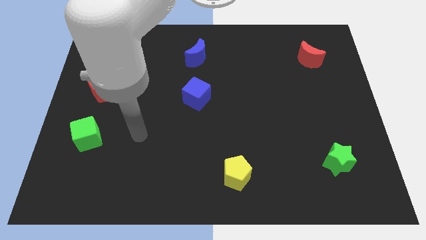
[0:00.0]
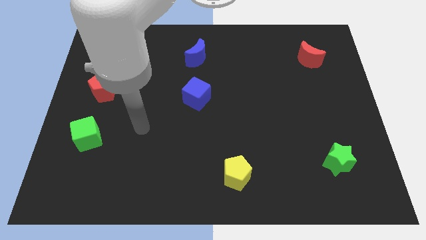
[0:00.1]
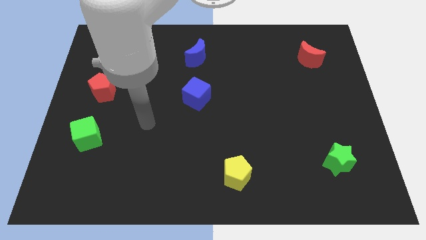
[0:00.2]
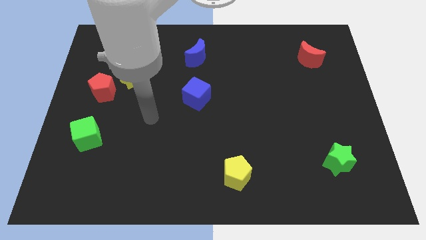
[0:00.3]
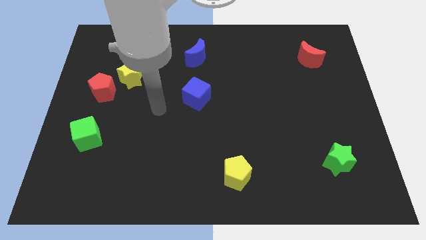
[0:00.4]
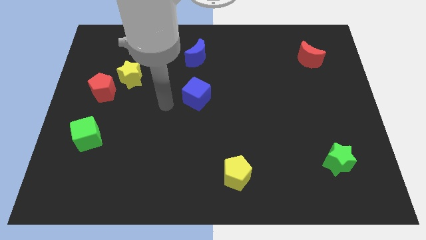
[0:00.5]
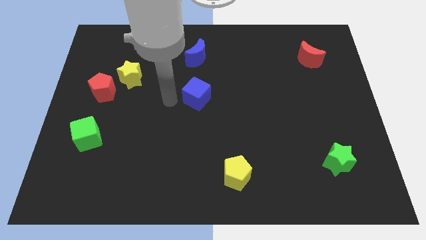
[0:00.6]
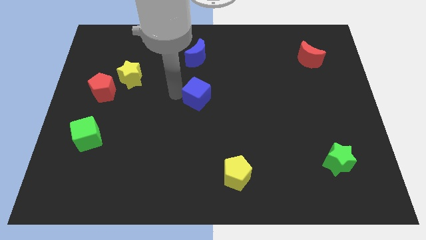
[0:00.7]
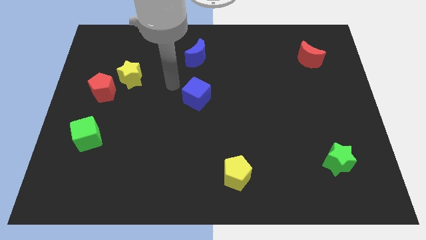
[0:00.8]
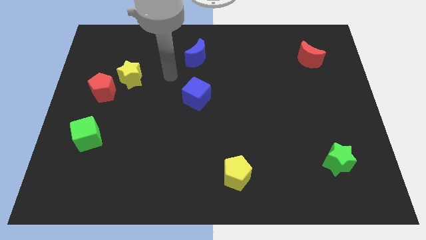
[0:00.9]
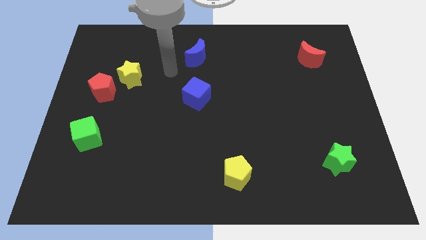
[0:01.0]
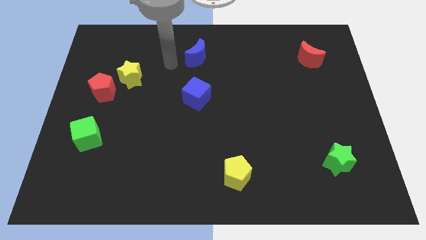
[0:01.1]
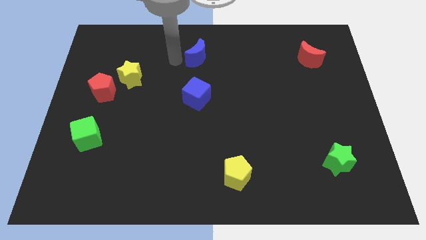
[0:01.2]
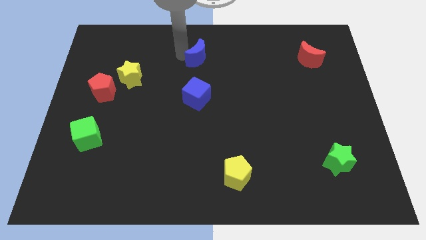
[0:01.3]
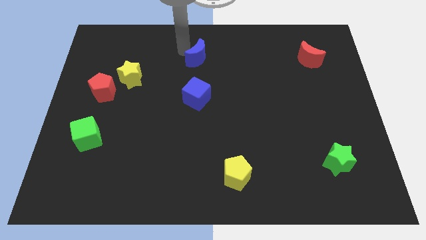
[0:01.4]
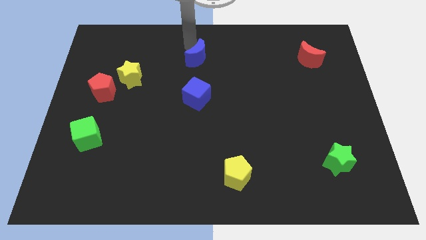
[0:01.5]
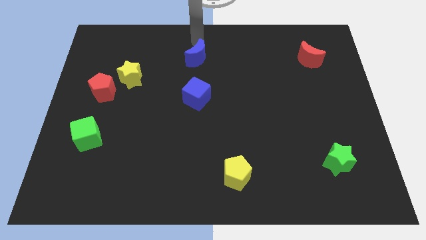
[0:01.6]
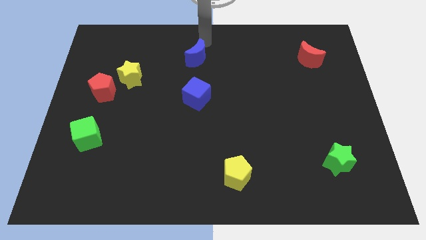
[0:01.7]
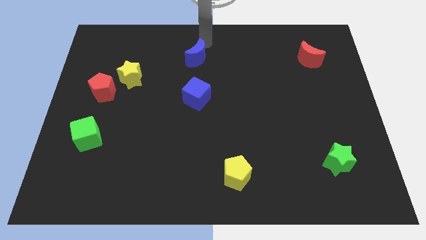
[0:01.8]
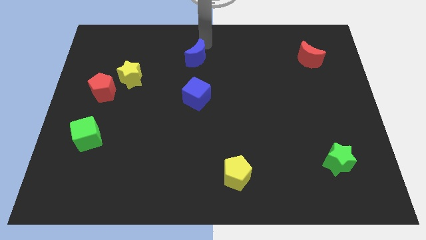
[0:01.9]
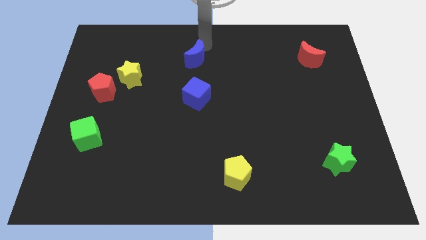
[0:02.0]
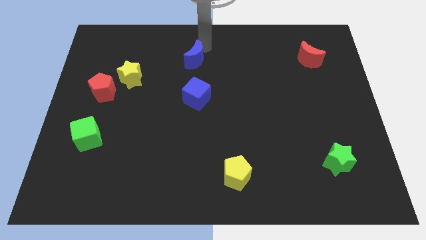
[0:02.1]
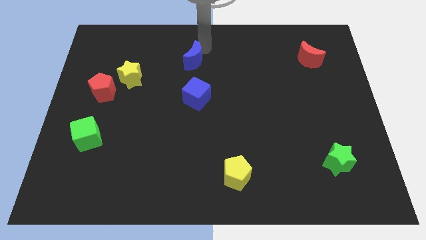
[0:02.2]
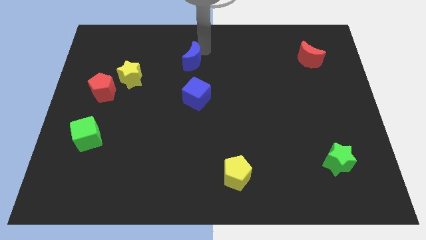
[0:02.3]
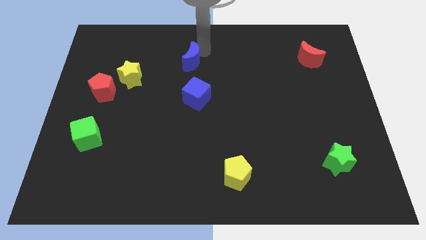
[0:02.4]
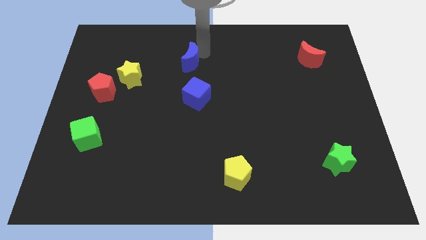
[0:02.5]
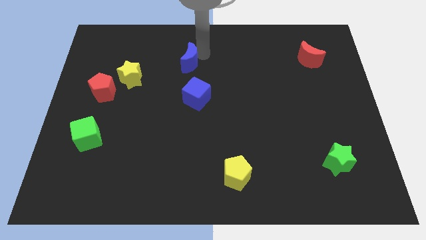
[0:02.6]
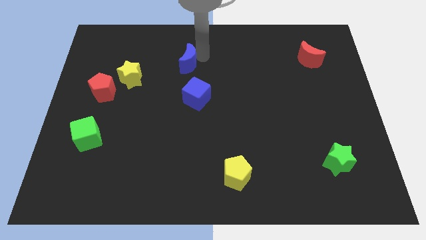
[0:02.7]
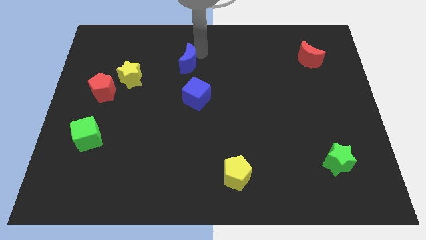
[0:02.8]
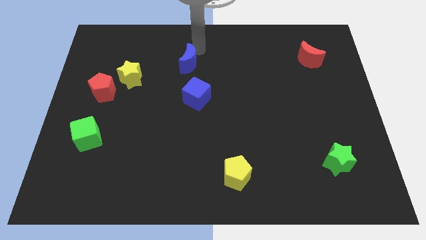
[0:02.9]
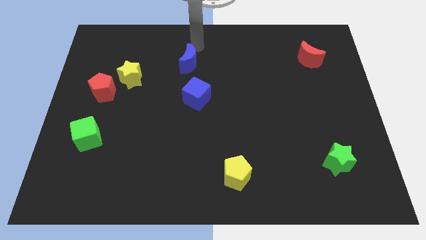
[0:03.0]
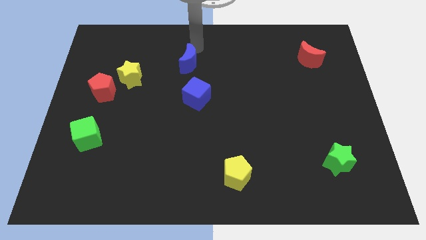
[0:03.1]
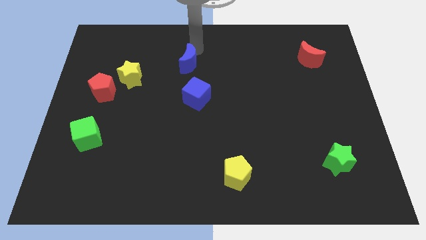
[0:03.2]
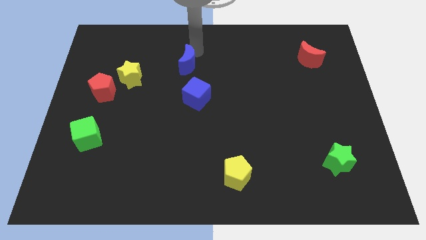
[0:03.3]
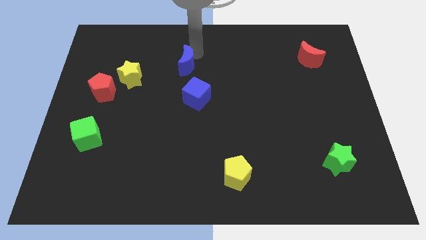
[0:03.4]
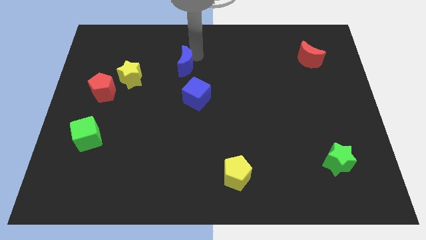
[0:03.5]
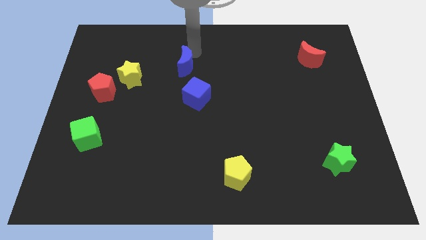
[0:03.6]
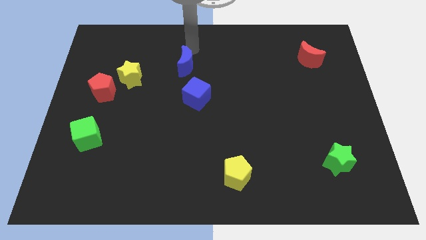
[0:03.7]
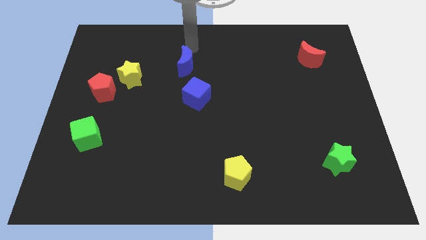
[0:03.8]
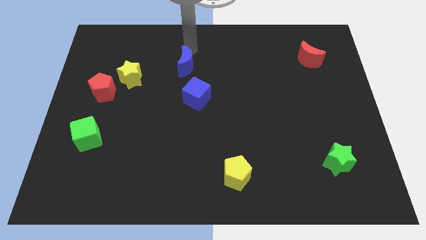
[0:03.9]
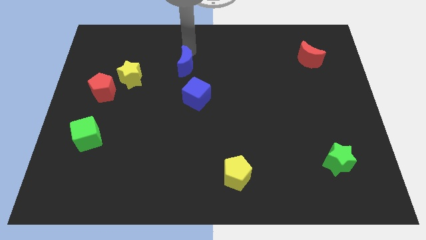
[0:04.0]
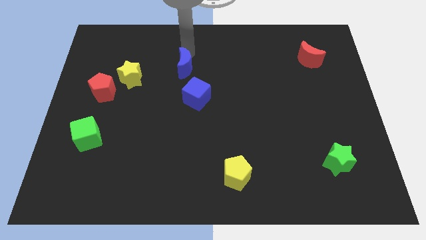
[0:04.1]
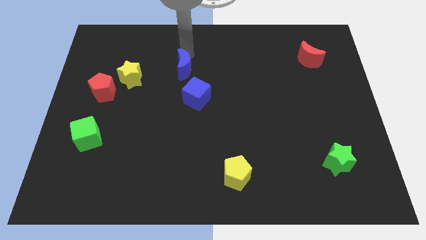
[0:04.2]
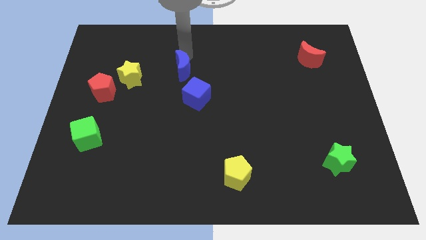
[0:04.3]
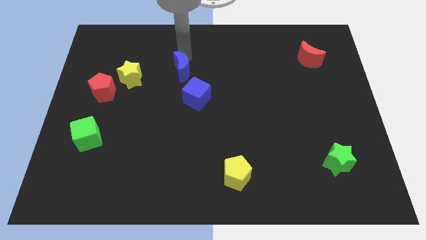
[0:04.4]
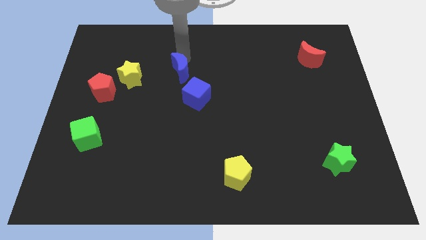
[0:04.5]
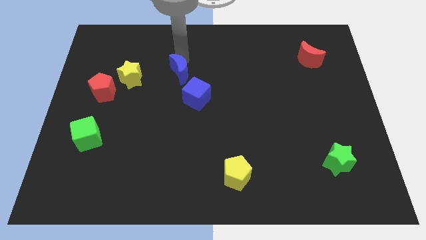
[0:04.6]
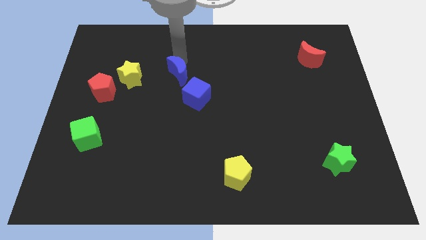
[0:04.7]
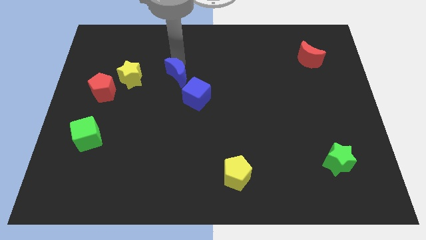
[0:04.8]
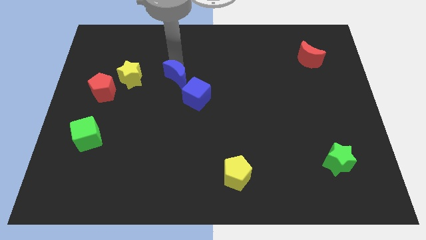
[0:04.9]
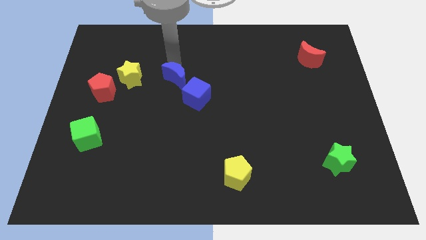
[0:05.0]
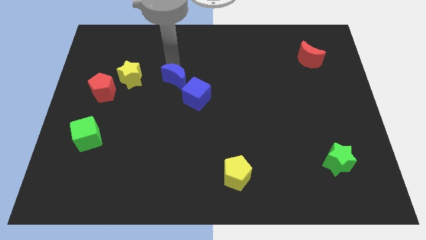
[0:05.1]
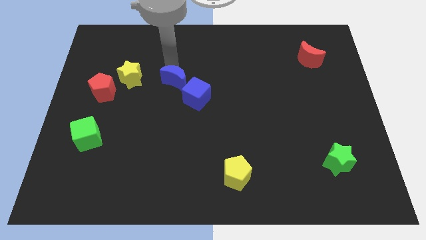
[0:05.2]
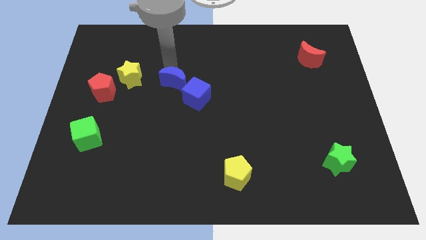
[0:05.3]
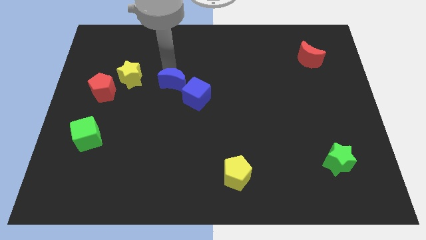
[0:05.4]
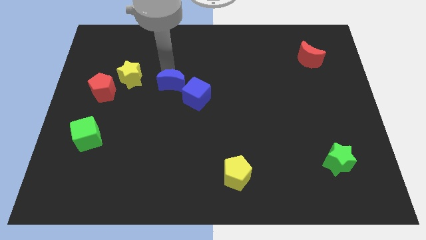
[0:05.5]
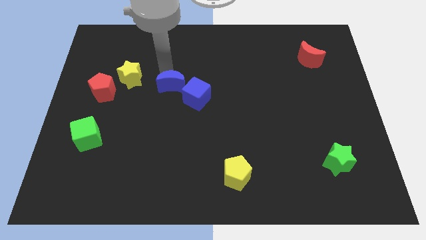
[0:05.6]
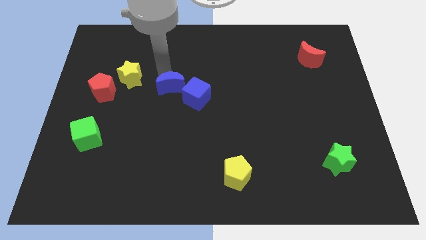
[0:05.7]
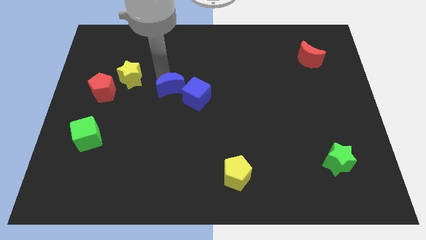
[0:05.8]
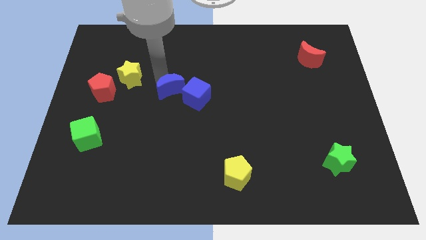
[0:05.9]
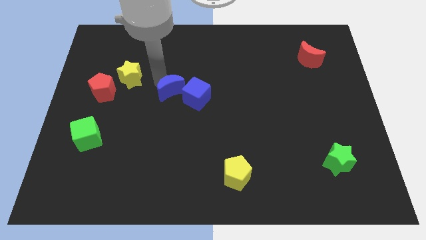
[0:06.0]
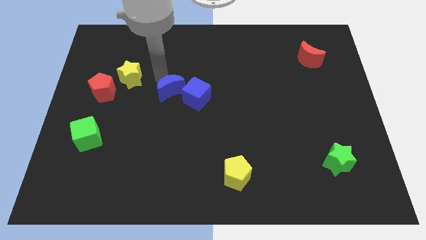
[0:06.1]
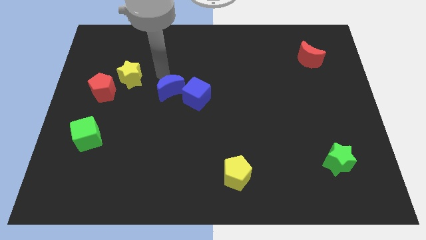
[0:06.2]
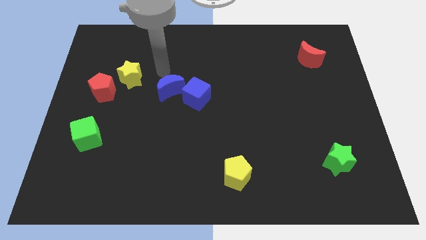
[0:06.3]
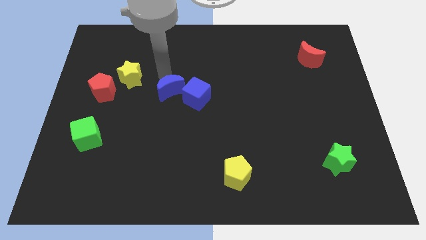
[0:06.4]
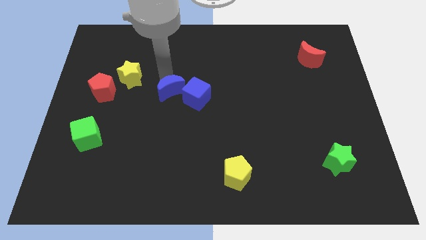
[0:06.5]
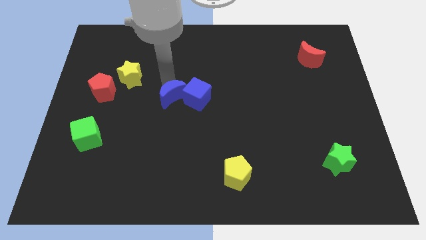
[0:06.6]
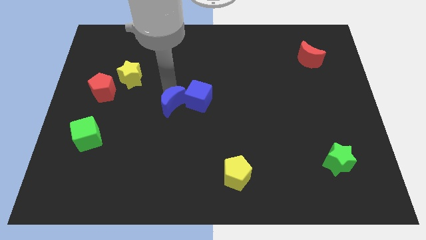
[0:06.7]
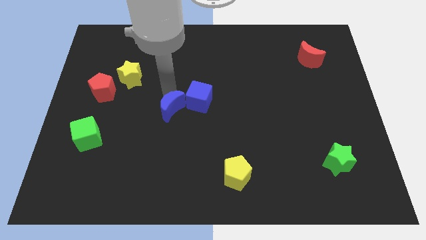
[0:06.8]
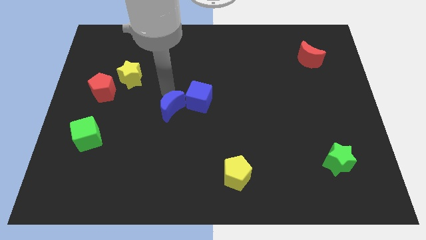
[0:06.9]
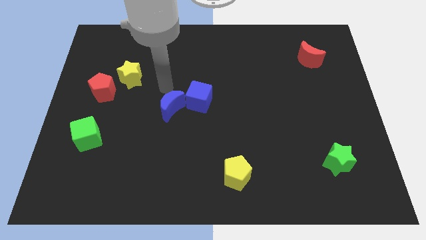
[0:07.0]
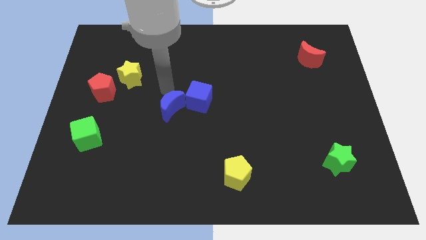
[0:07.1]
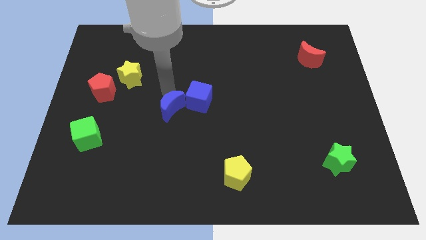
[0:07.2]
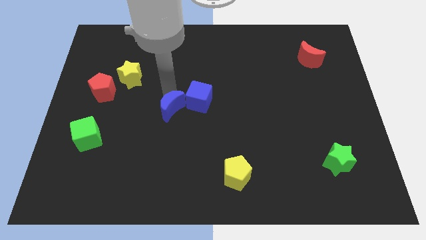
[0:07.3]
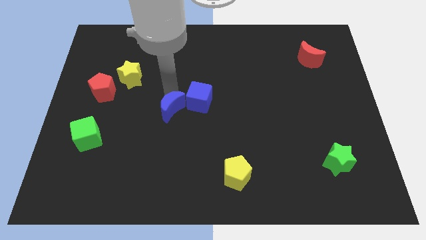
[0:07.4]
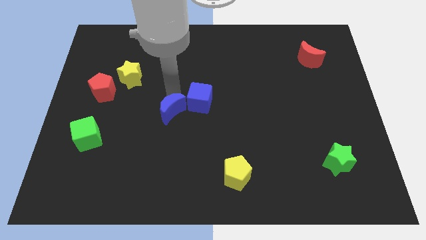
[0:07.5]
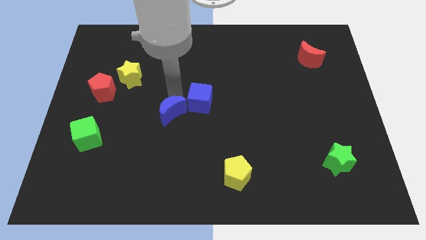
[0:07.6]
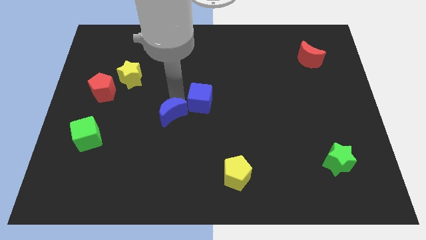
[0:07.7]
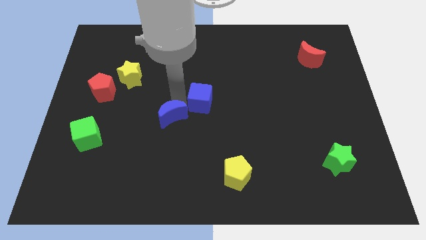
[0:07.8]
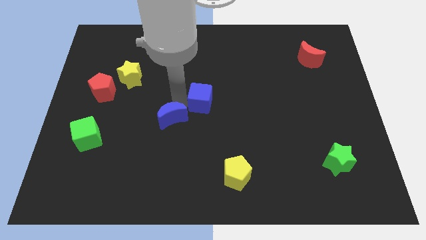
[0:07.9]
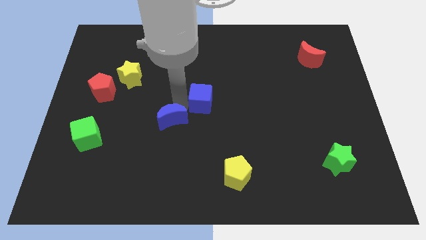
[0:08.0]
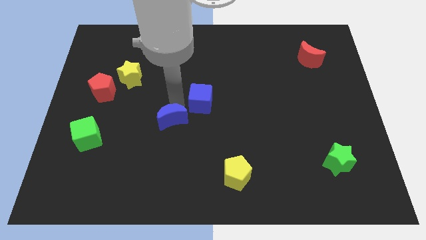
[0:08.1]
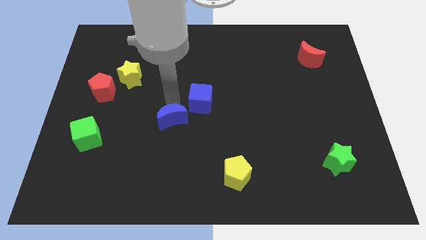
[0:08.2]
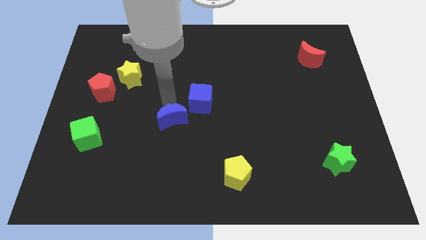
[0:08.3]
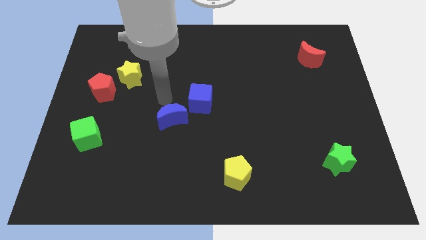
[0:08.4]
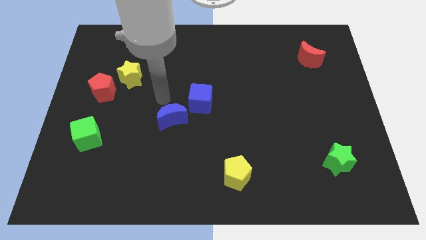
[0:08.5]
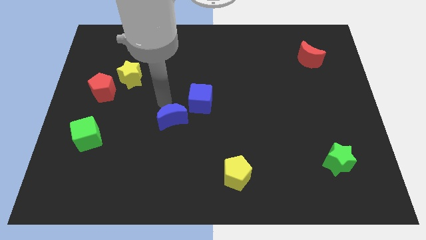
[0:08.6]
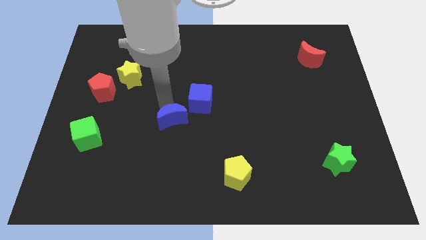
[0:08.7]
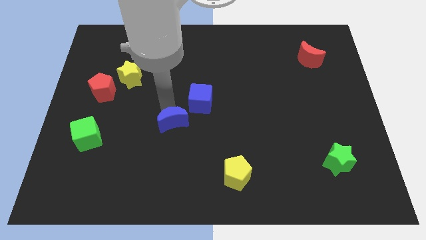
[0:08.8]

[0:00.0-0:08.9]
slide the blue moon down
